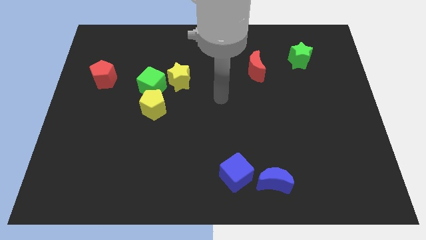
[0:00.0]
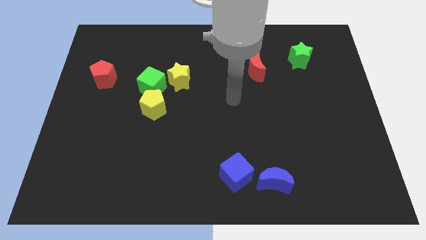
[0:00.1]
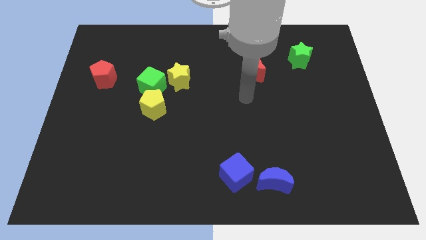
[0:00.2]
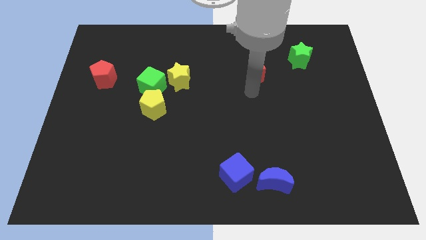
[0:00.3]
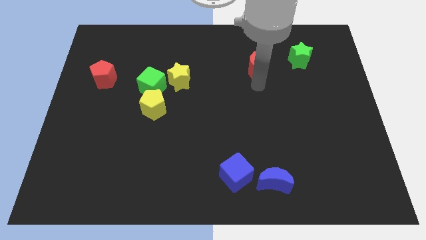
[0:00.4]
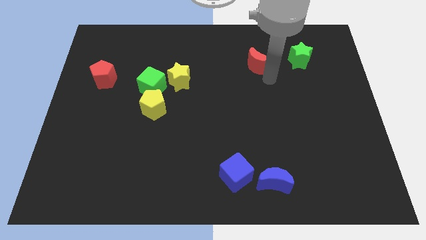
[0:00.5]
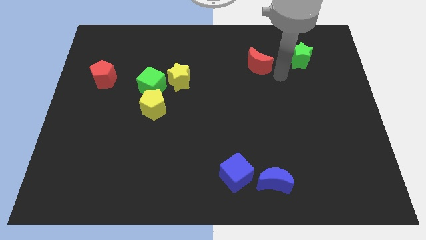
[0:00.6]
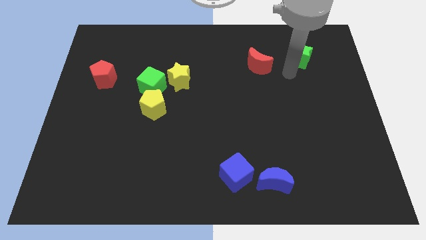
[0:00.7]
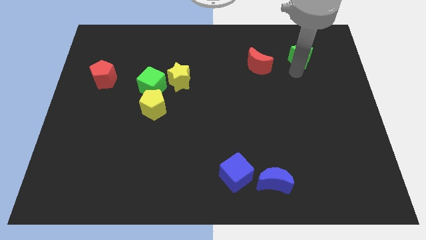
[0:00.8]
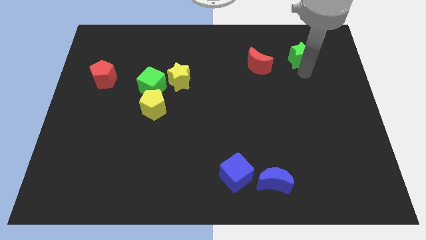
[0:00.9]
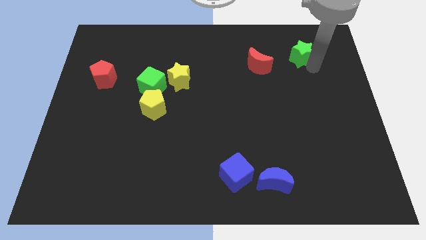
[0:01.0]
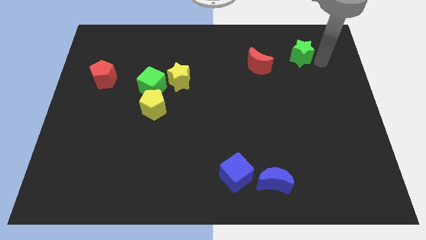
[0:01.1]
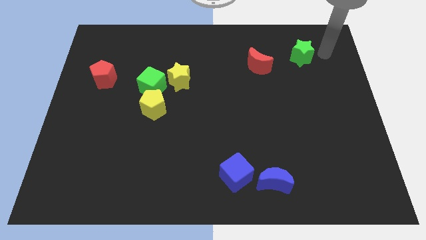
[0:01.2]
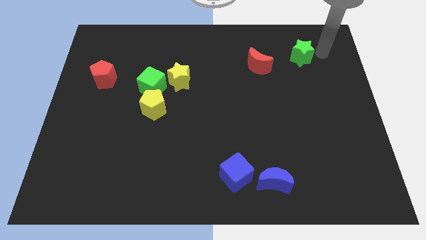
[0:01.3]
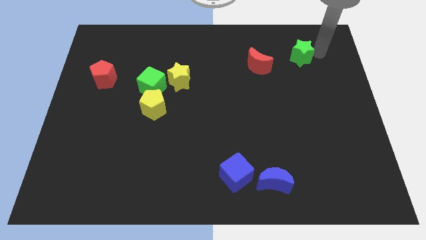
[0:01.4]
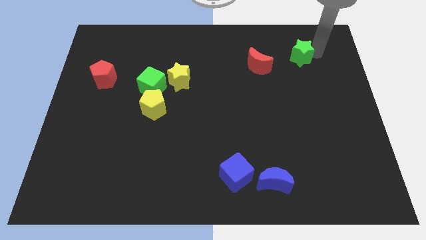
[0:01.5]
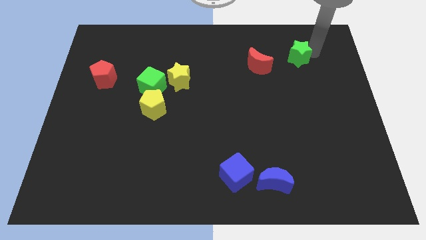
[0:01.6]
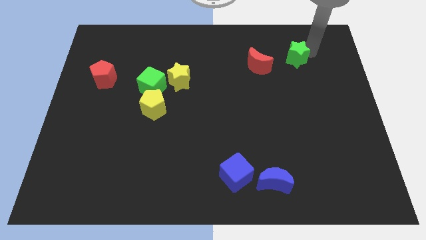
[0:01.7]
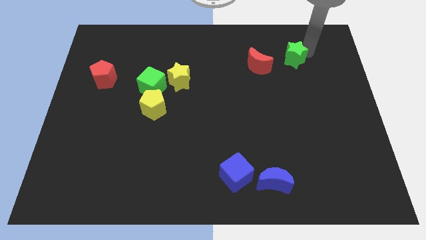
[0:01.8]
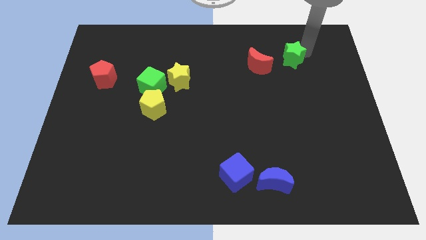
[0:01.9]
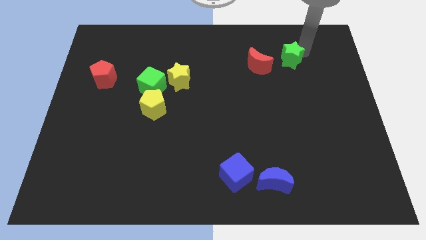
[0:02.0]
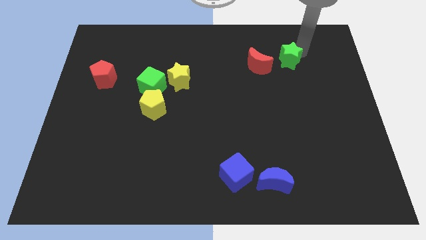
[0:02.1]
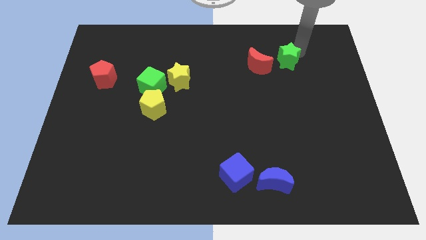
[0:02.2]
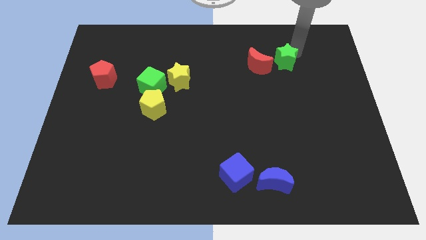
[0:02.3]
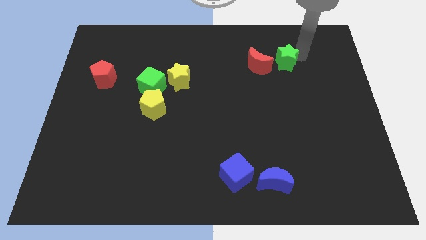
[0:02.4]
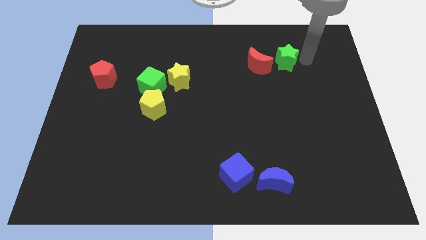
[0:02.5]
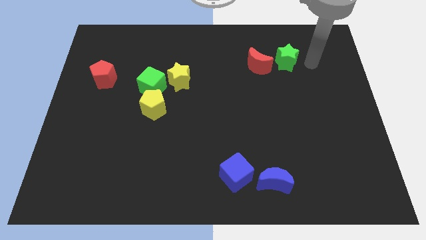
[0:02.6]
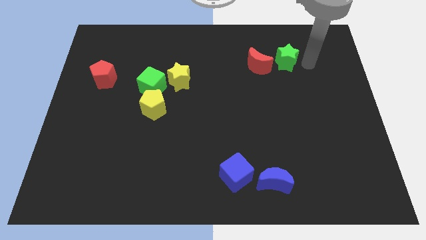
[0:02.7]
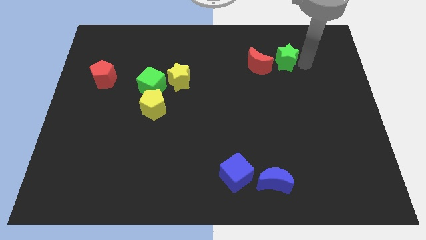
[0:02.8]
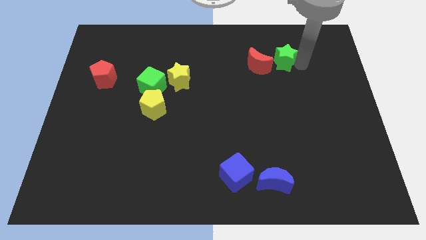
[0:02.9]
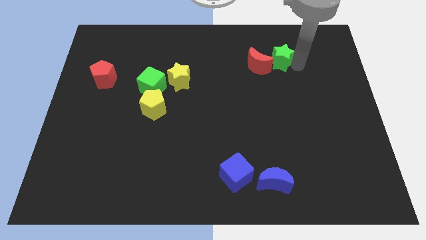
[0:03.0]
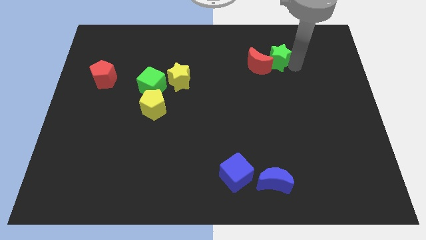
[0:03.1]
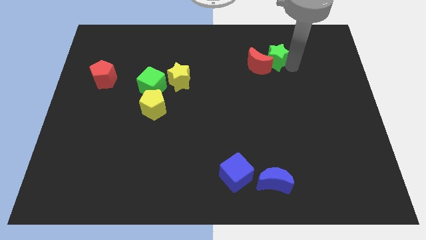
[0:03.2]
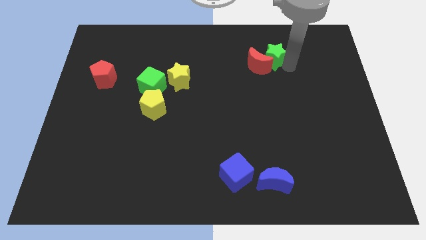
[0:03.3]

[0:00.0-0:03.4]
move the green star a little bit to the left

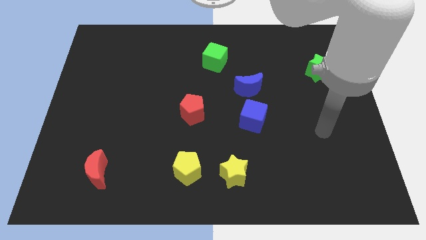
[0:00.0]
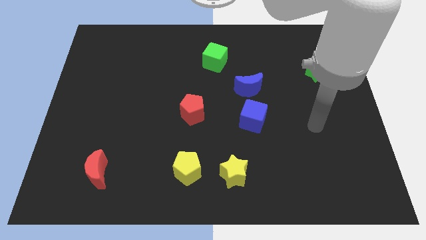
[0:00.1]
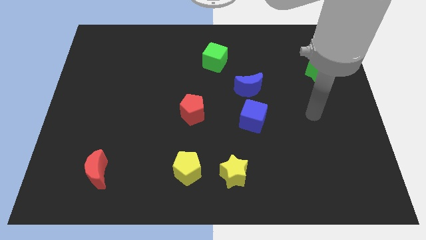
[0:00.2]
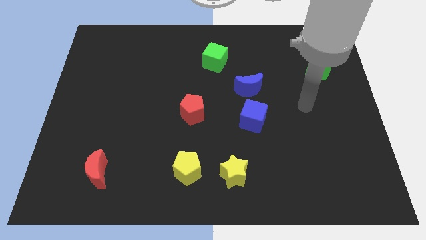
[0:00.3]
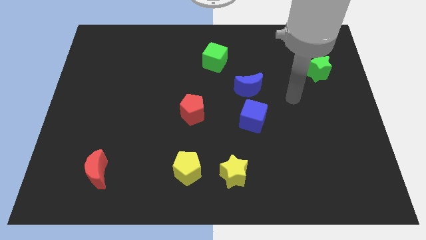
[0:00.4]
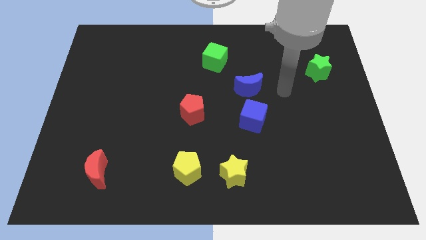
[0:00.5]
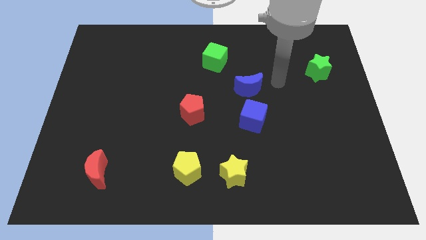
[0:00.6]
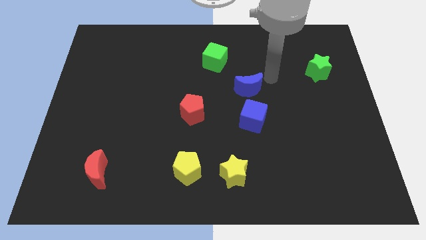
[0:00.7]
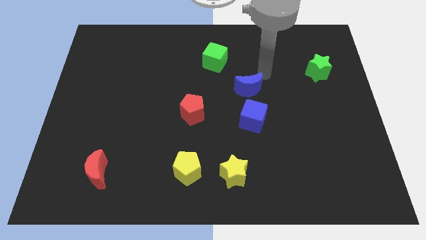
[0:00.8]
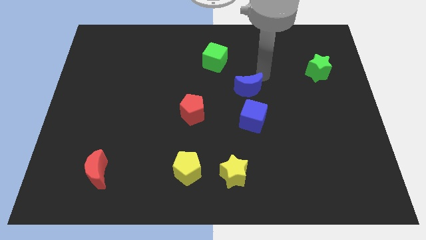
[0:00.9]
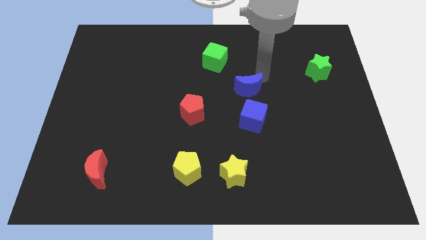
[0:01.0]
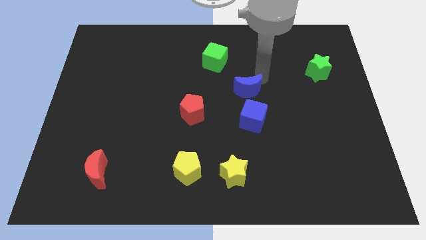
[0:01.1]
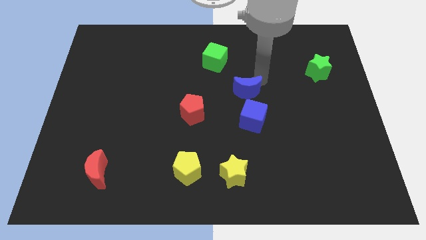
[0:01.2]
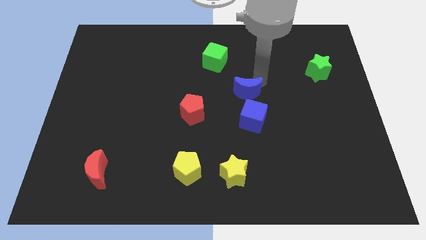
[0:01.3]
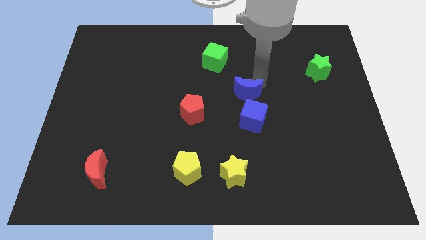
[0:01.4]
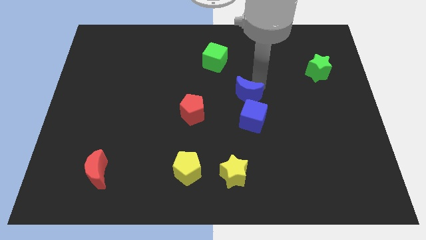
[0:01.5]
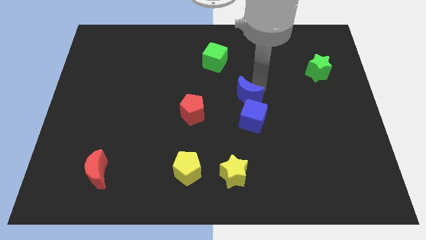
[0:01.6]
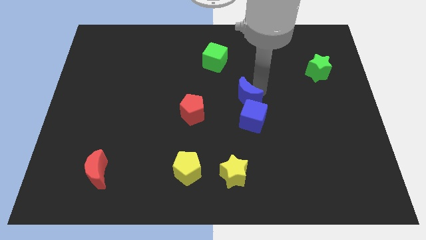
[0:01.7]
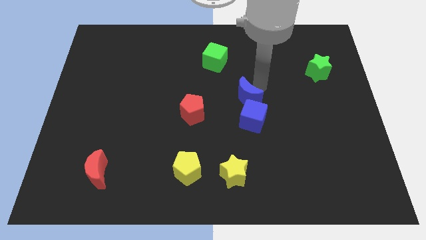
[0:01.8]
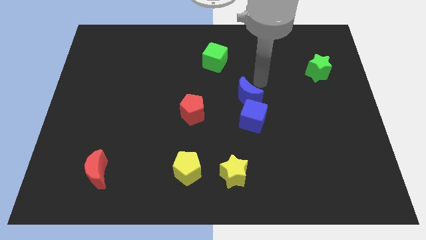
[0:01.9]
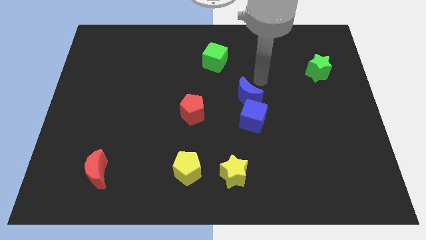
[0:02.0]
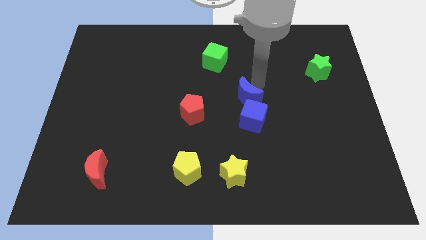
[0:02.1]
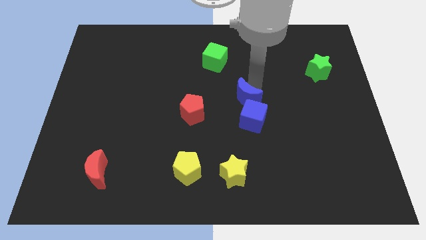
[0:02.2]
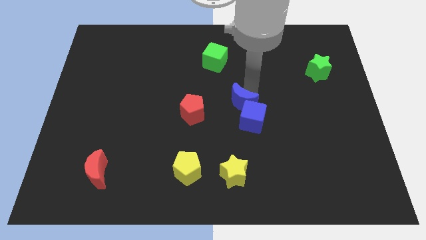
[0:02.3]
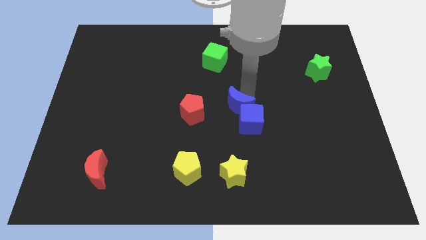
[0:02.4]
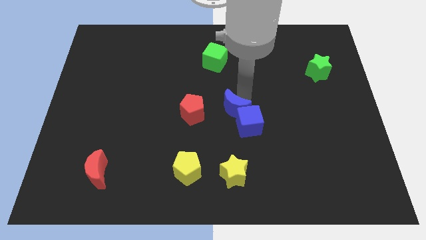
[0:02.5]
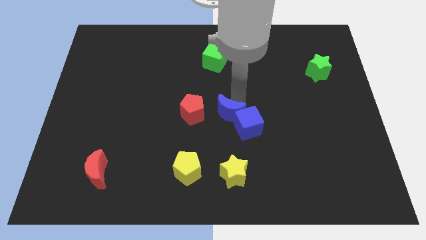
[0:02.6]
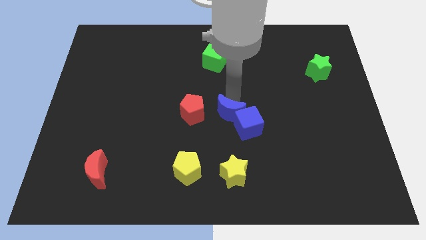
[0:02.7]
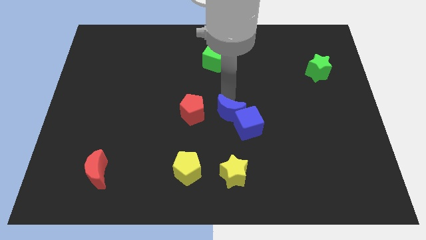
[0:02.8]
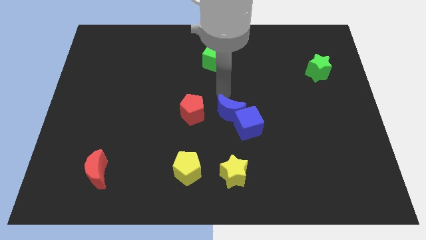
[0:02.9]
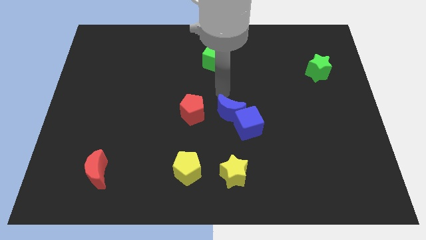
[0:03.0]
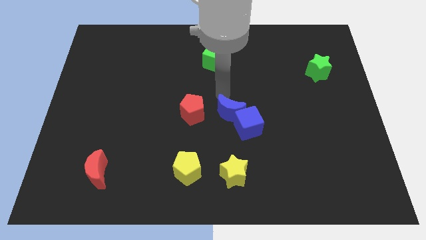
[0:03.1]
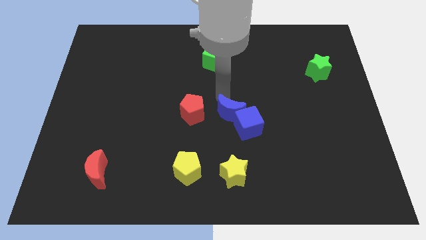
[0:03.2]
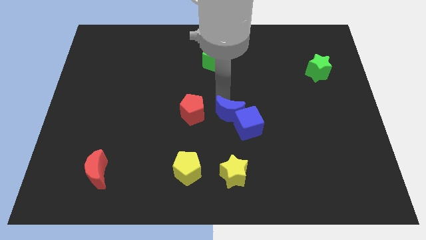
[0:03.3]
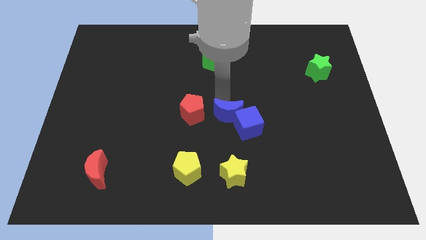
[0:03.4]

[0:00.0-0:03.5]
push the blue moon a little down

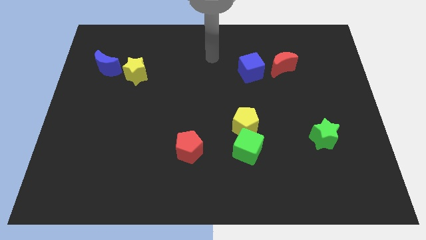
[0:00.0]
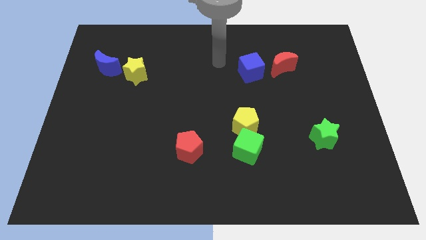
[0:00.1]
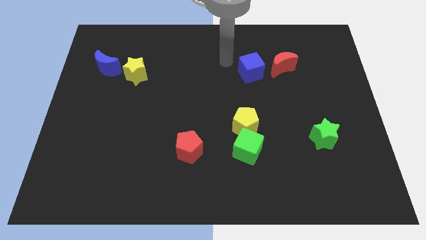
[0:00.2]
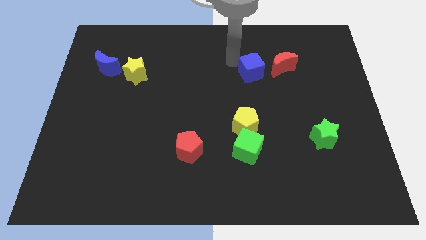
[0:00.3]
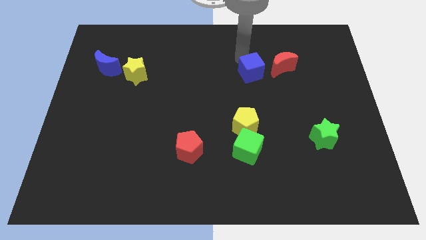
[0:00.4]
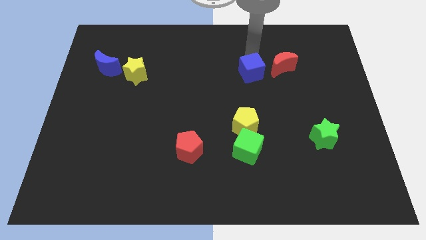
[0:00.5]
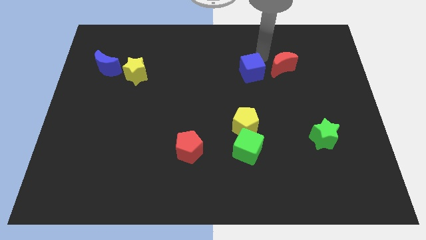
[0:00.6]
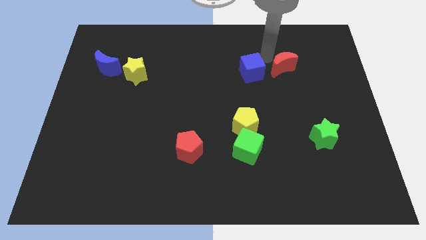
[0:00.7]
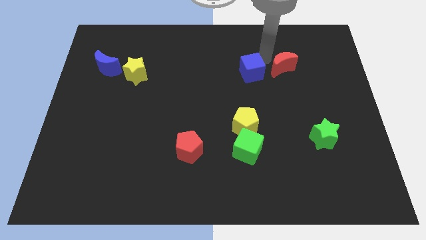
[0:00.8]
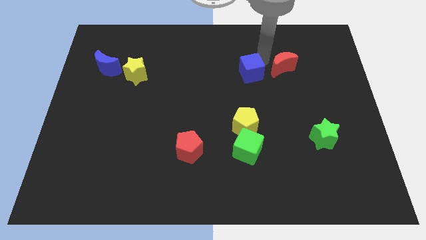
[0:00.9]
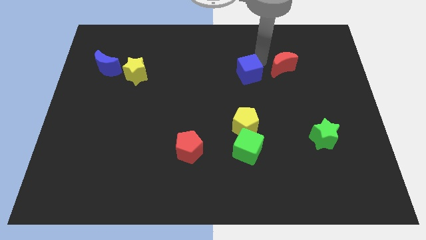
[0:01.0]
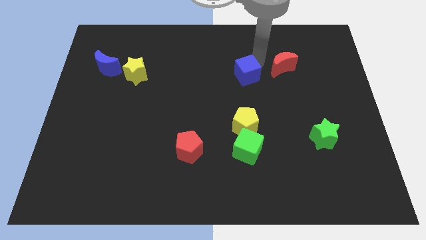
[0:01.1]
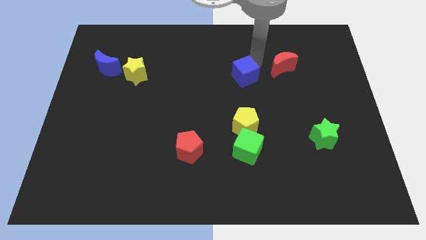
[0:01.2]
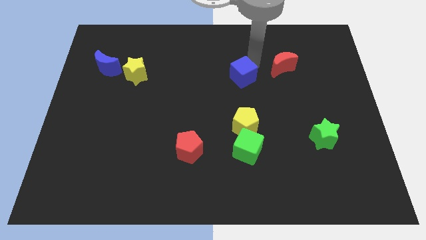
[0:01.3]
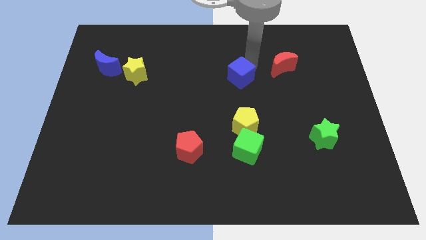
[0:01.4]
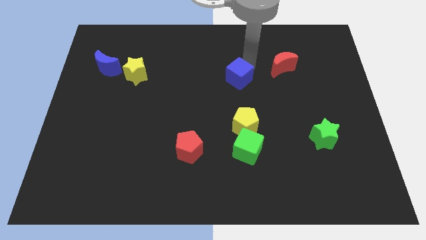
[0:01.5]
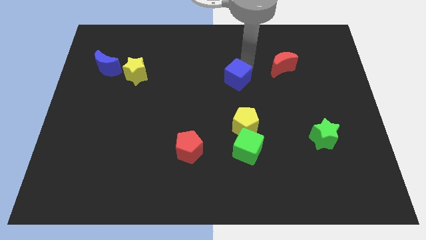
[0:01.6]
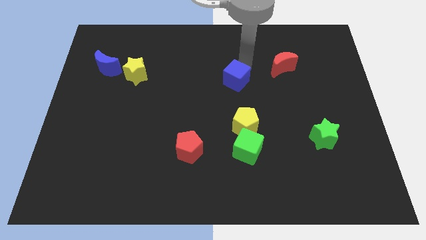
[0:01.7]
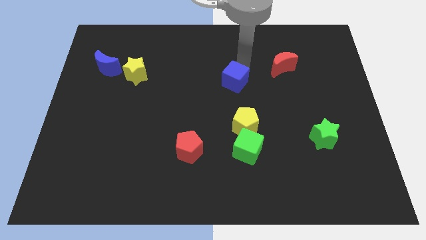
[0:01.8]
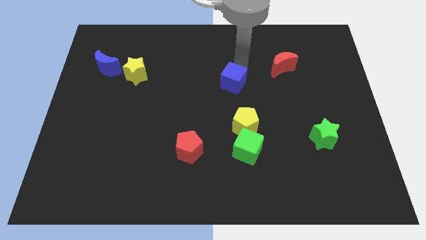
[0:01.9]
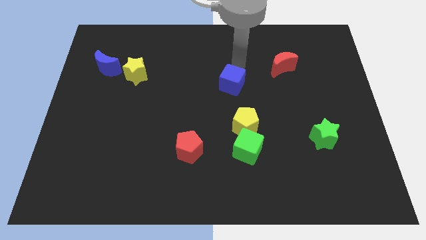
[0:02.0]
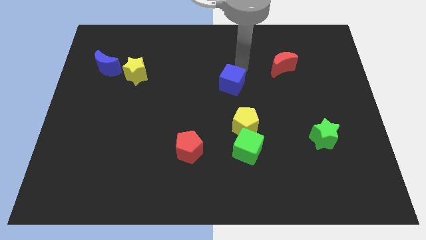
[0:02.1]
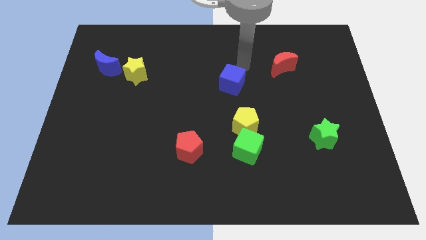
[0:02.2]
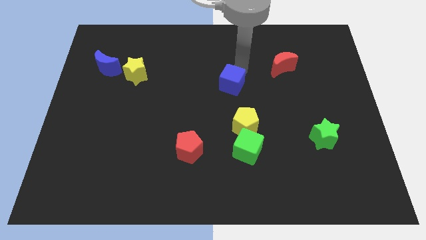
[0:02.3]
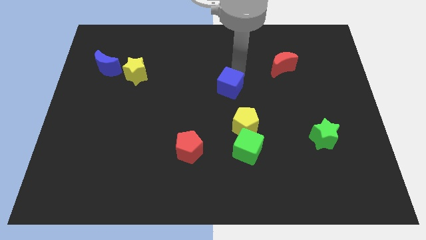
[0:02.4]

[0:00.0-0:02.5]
slightly push the blue cube downwards and left diagonally
